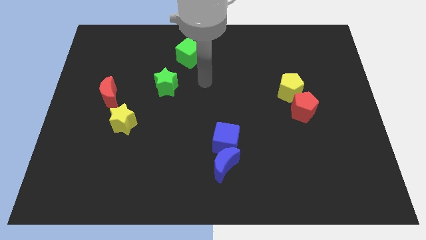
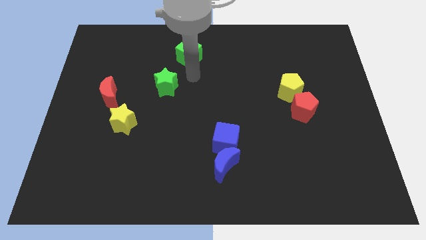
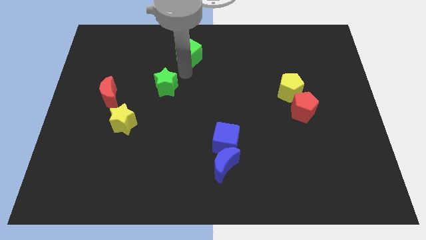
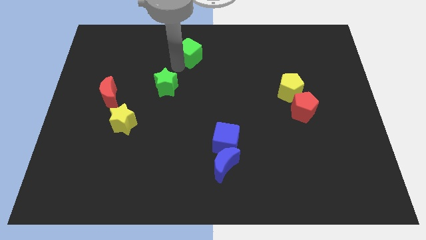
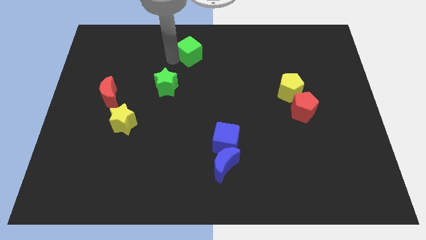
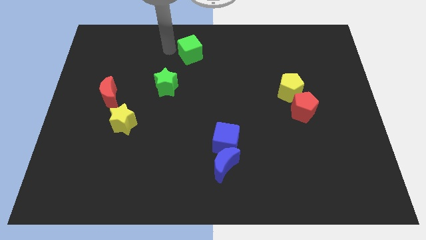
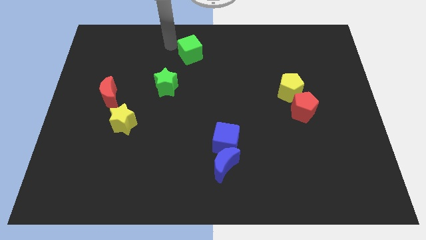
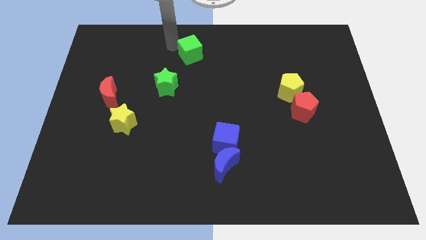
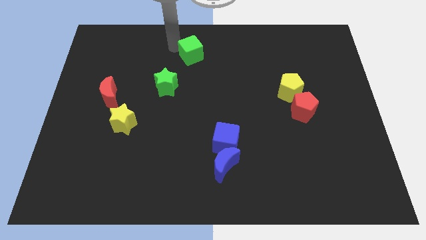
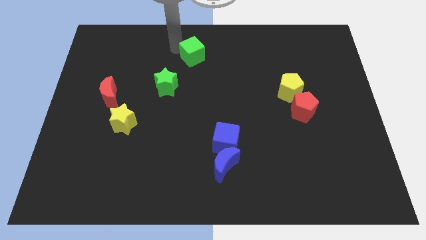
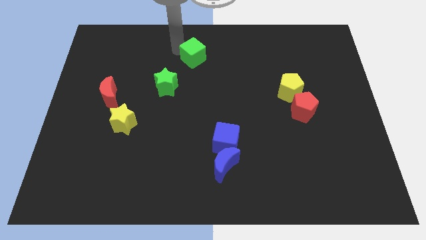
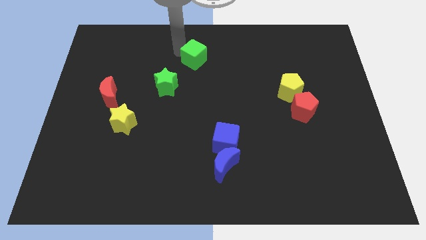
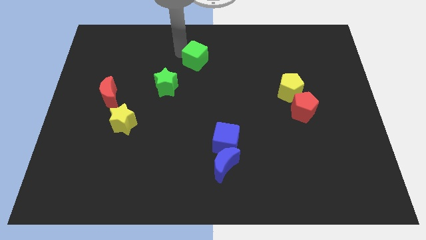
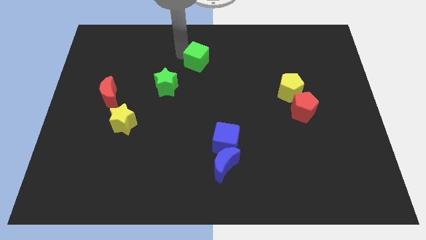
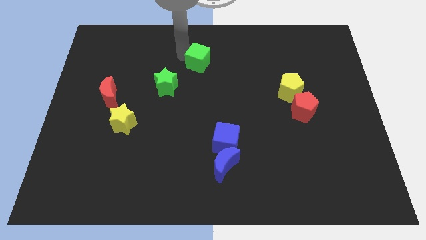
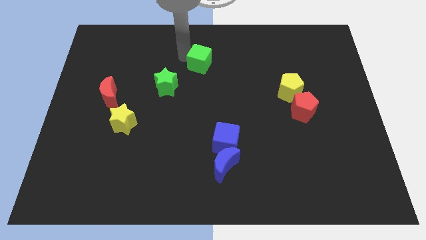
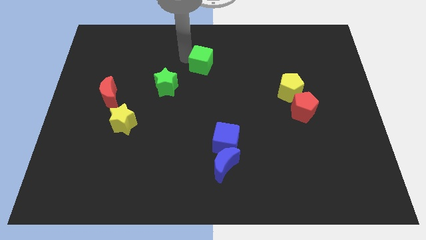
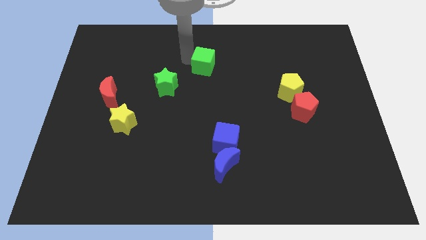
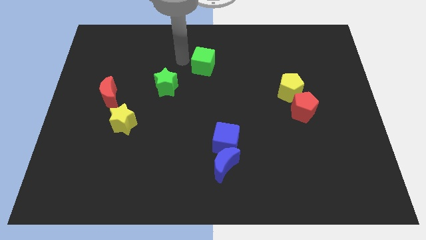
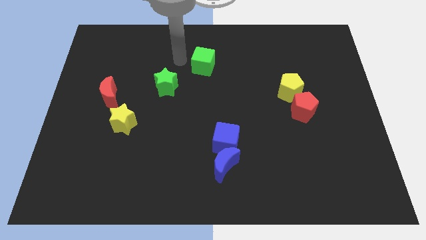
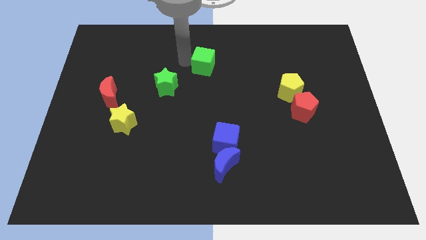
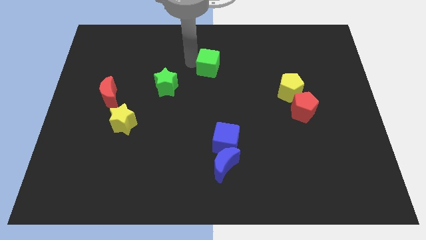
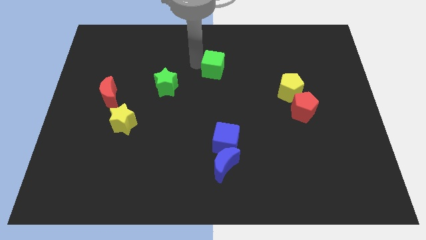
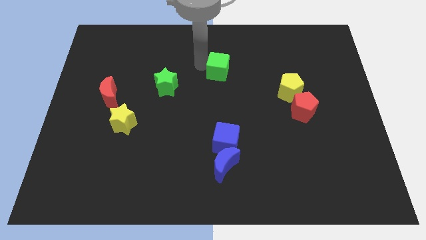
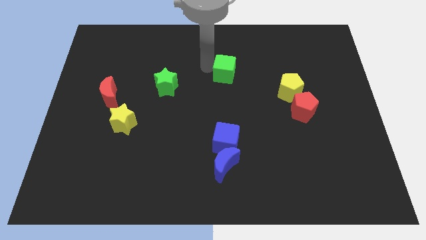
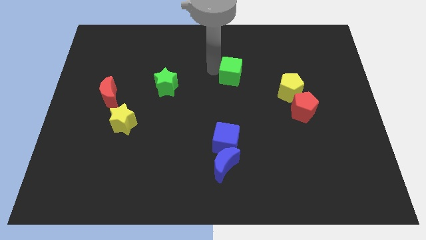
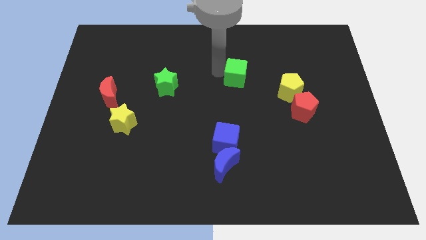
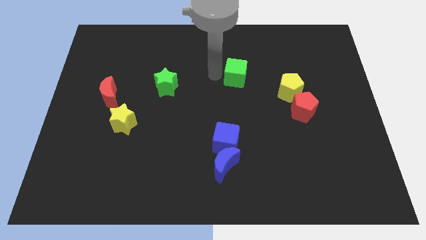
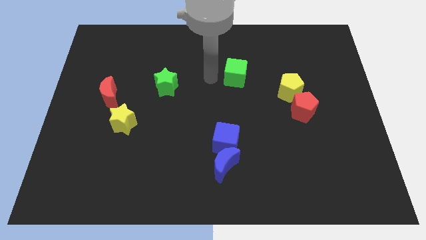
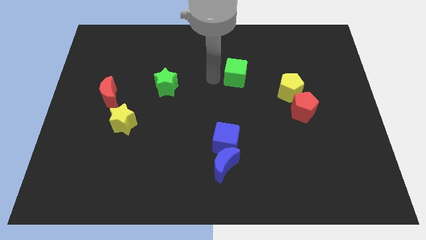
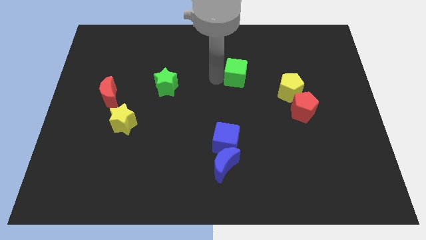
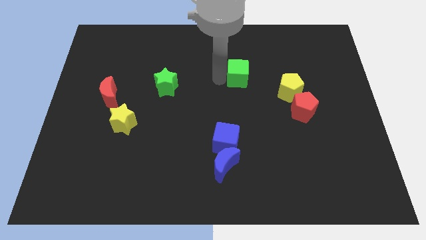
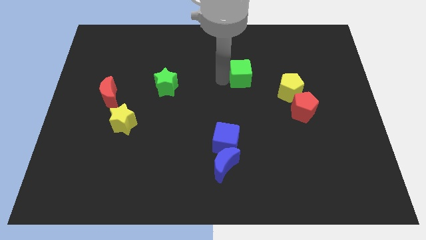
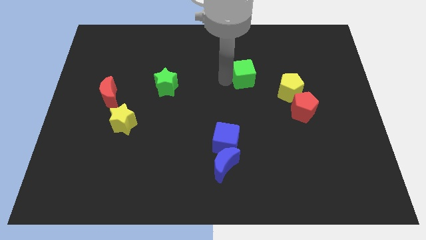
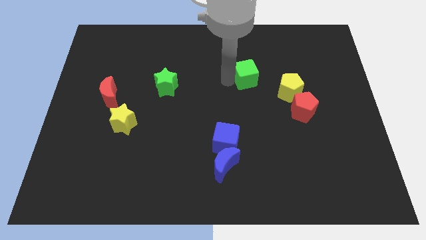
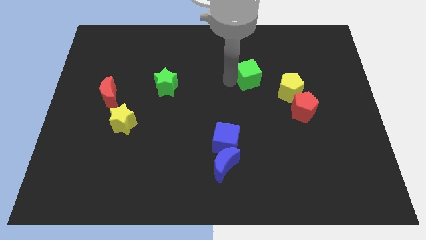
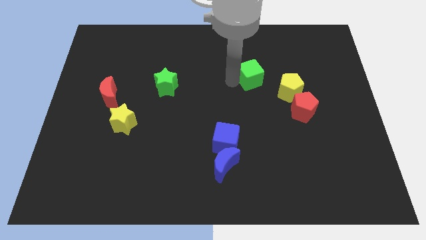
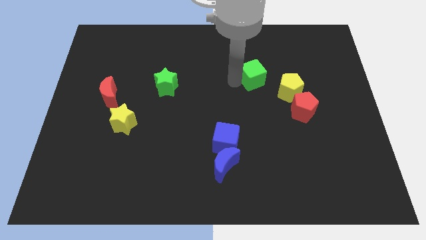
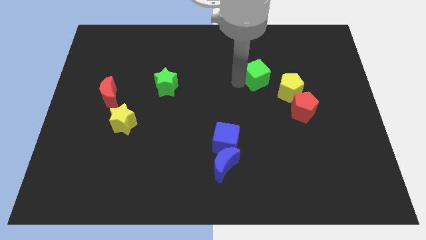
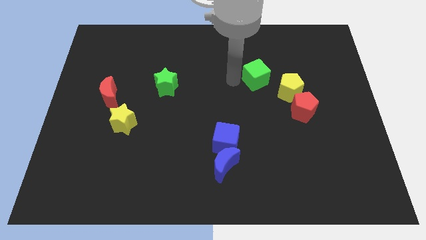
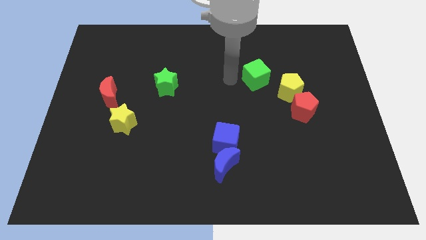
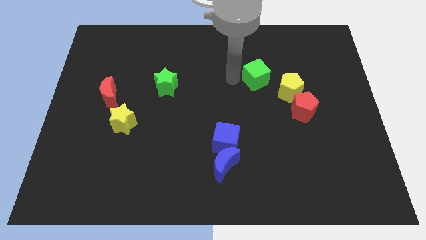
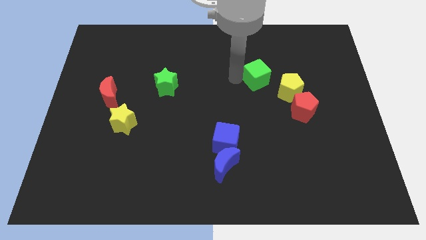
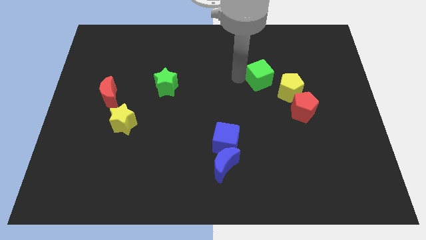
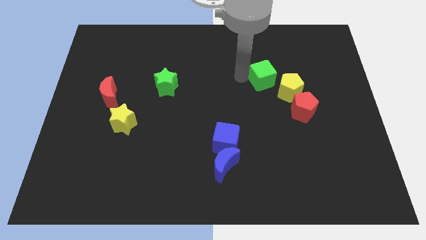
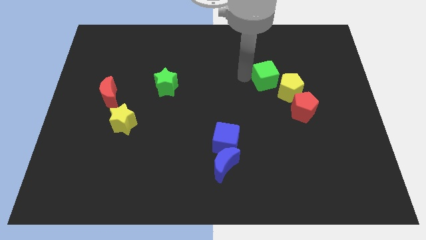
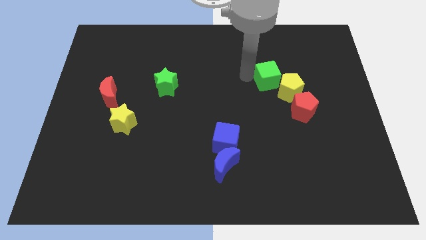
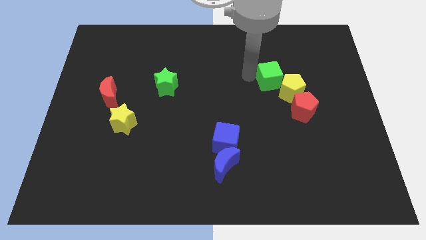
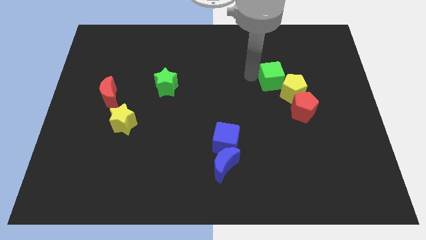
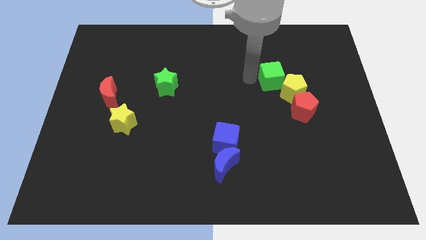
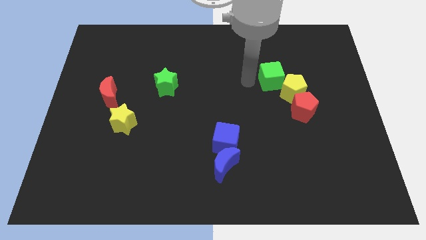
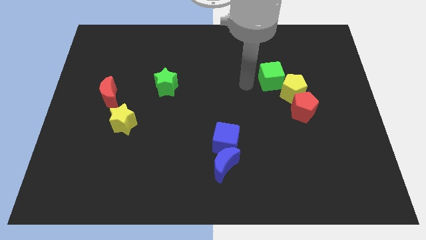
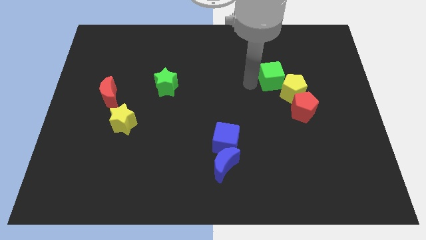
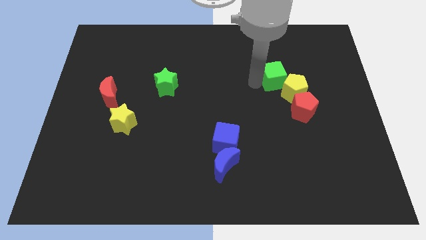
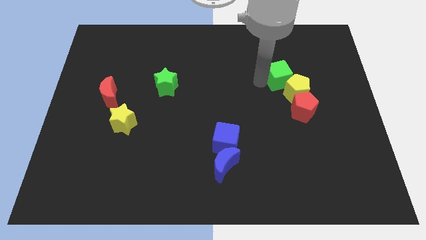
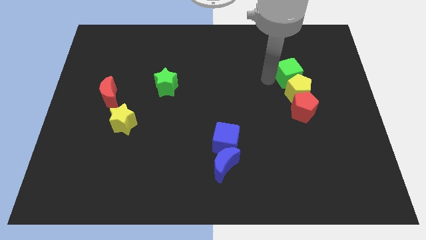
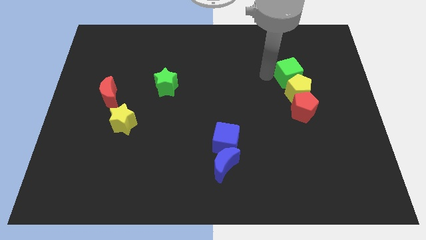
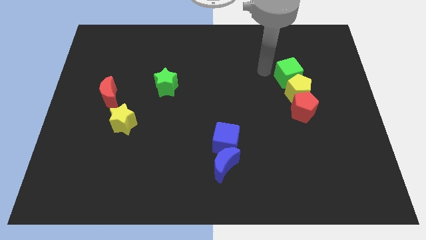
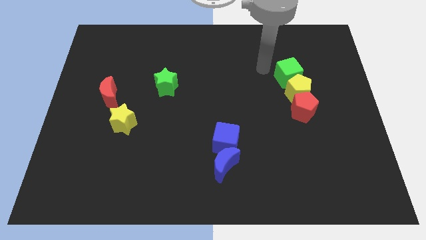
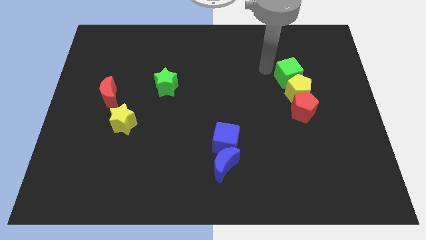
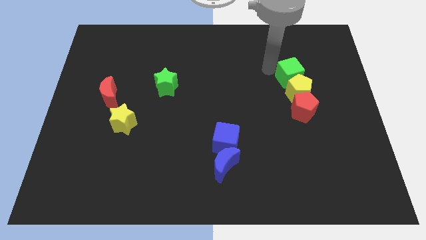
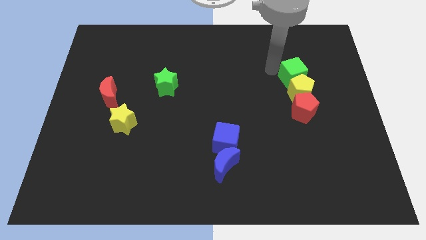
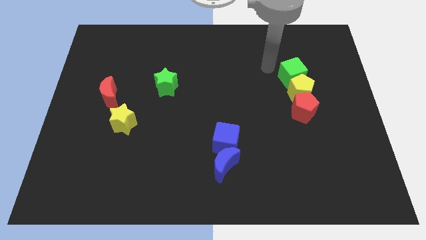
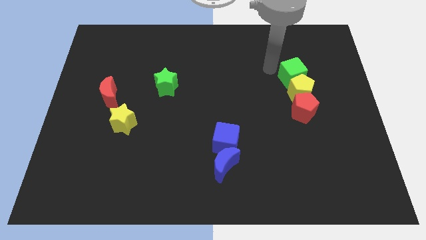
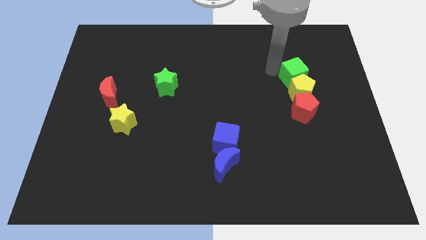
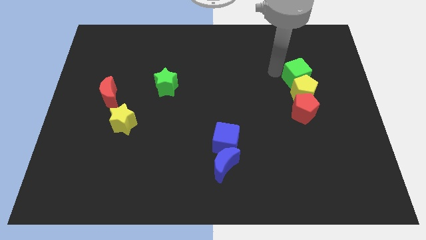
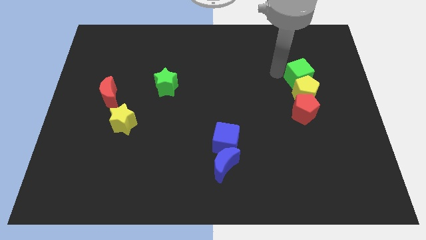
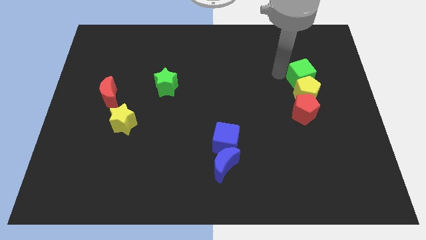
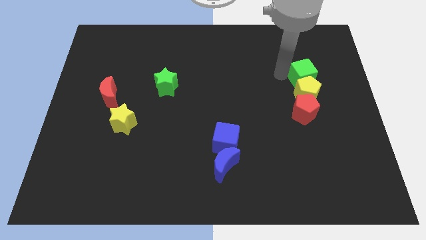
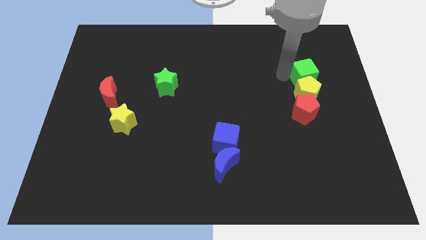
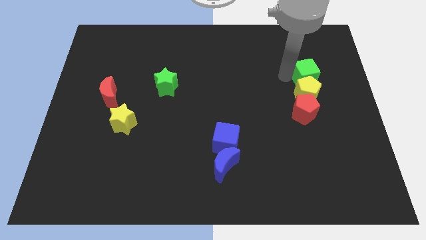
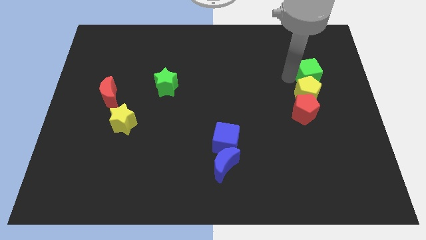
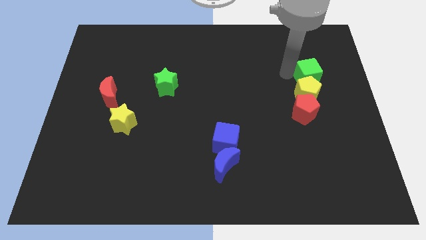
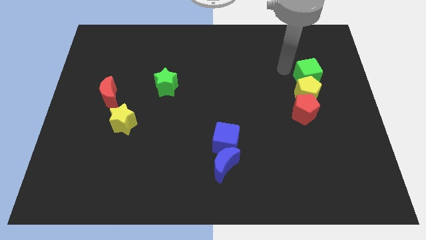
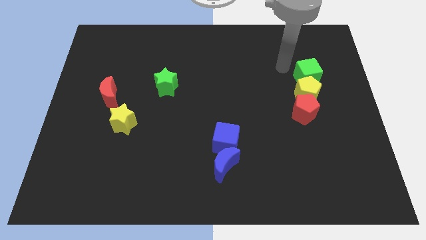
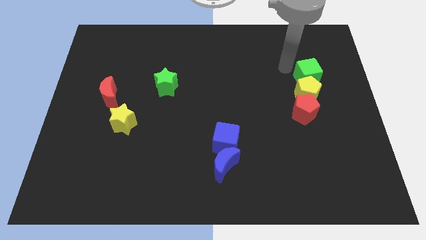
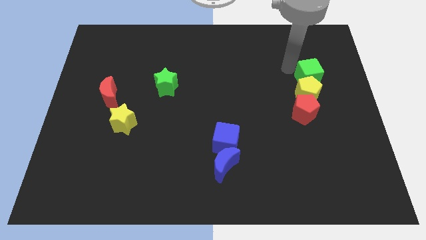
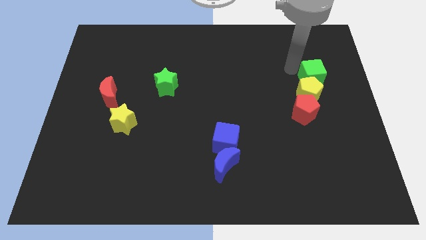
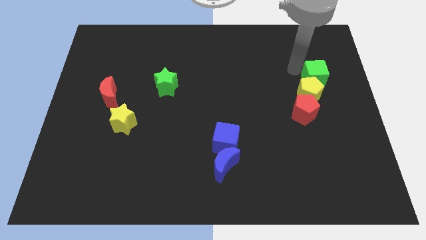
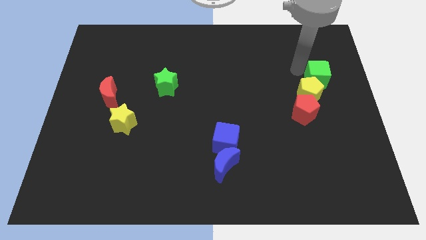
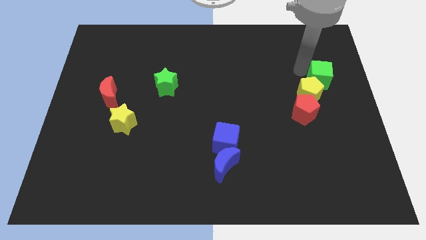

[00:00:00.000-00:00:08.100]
slide the green cube to the right side of the board
